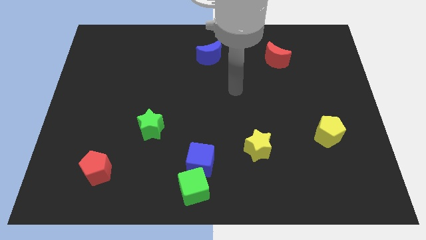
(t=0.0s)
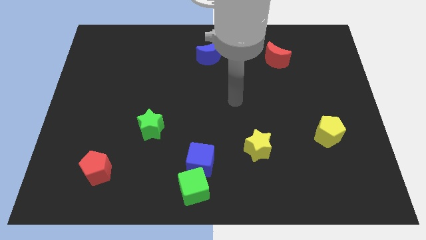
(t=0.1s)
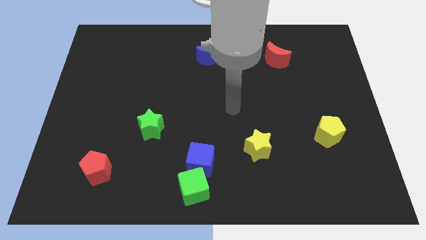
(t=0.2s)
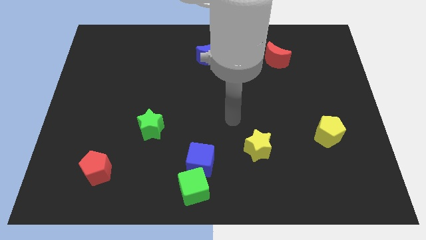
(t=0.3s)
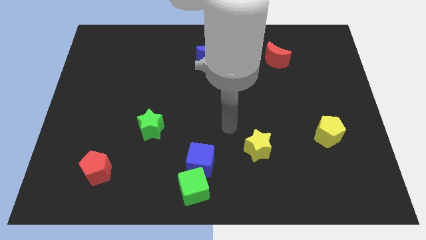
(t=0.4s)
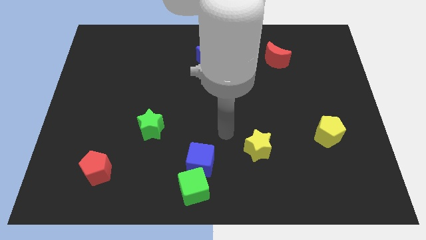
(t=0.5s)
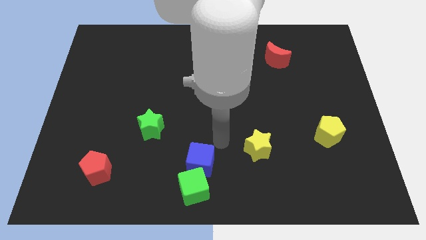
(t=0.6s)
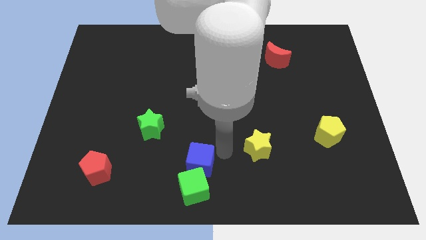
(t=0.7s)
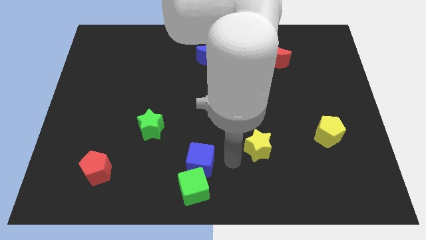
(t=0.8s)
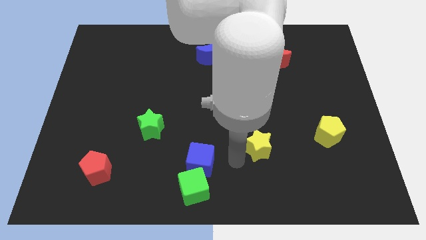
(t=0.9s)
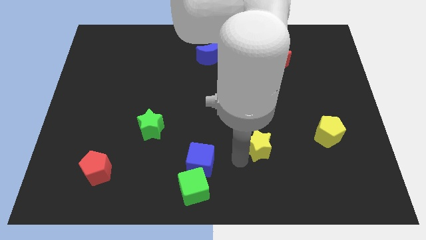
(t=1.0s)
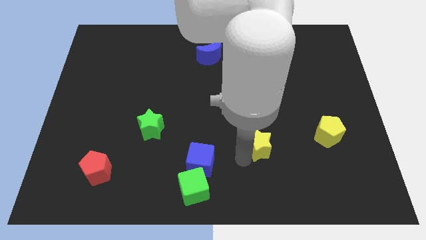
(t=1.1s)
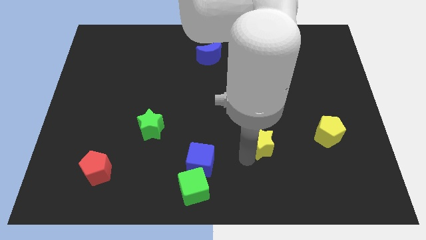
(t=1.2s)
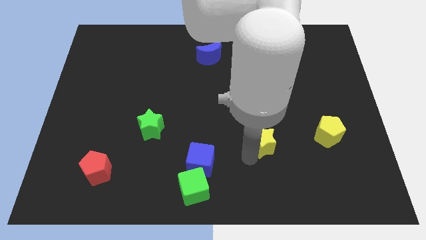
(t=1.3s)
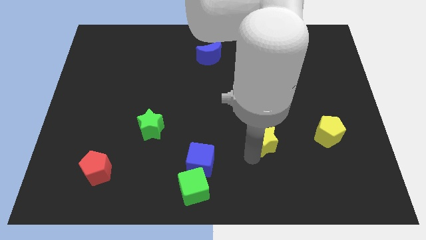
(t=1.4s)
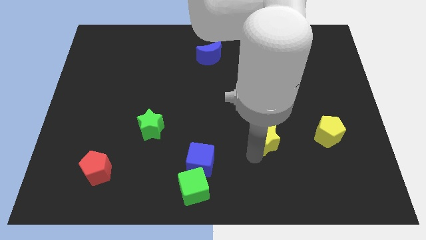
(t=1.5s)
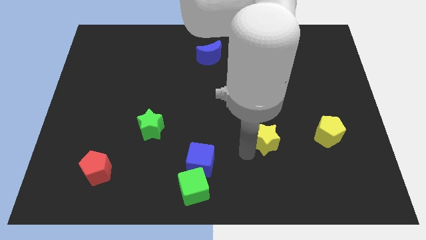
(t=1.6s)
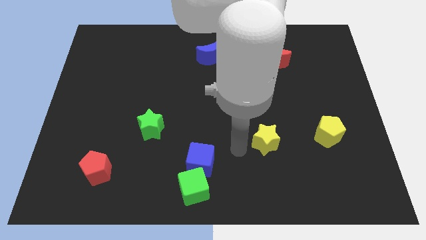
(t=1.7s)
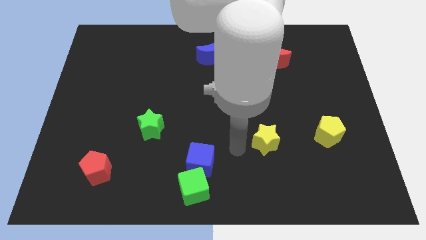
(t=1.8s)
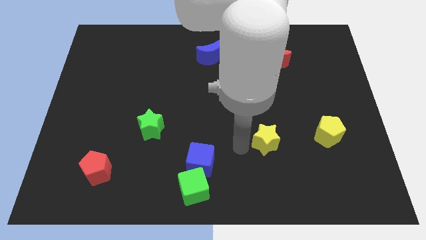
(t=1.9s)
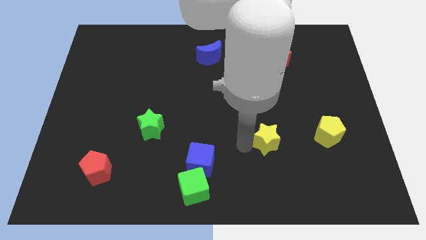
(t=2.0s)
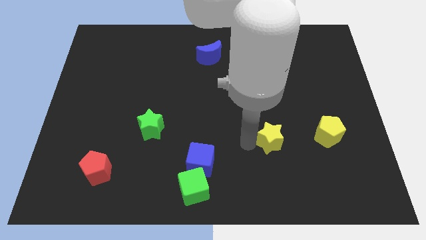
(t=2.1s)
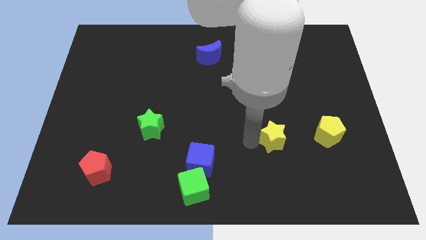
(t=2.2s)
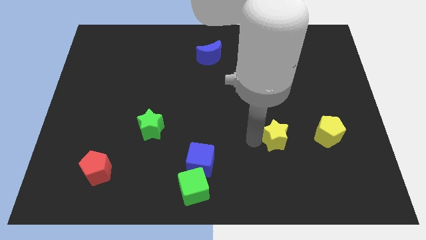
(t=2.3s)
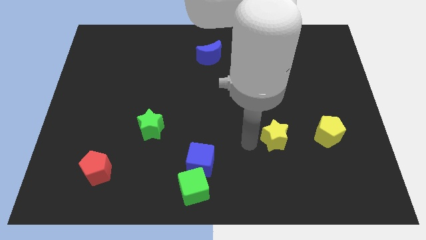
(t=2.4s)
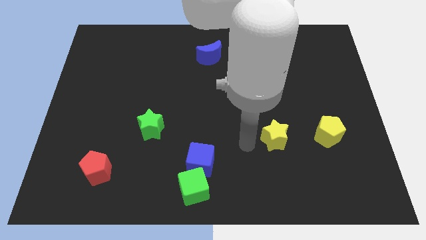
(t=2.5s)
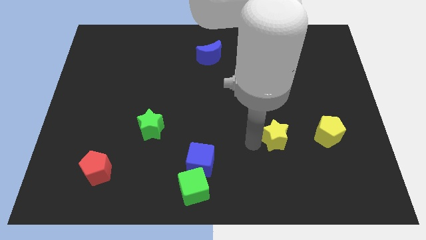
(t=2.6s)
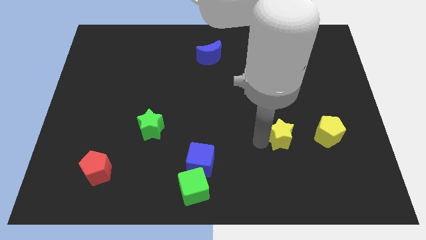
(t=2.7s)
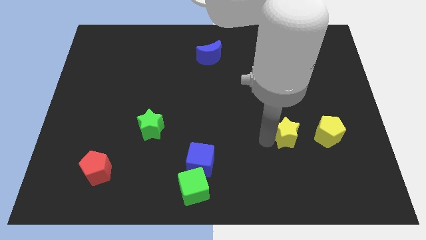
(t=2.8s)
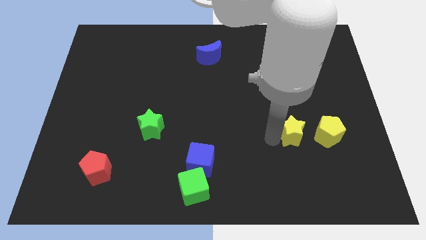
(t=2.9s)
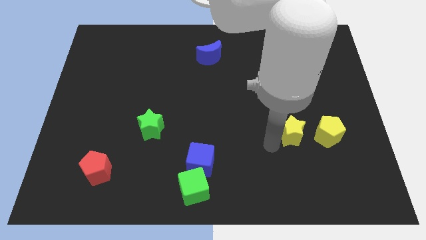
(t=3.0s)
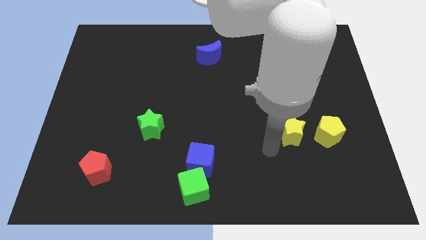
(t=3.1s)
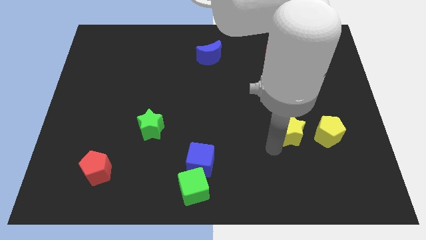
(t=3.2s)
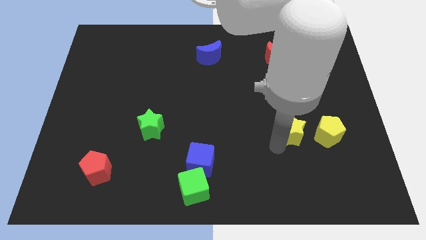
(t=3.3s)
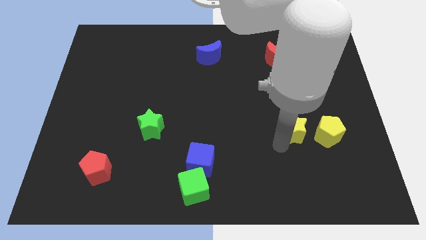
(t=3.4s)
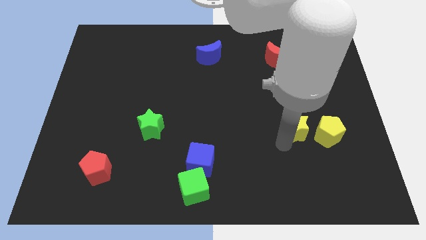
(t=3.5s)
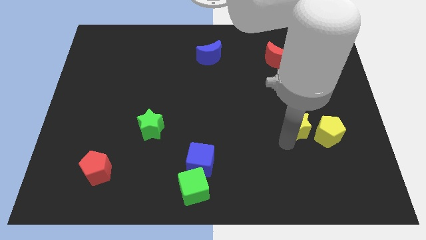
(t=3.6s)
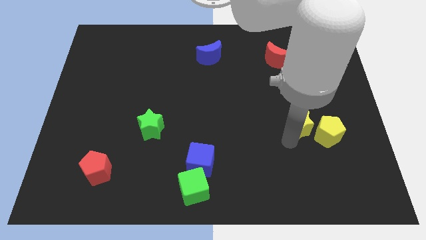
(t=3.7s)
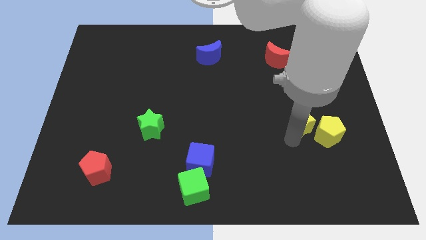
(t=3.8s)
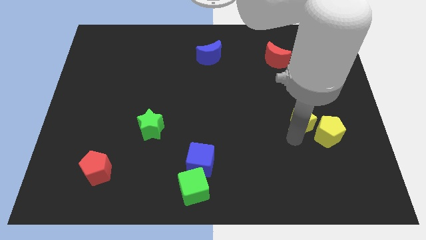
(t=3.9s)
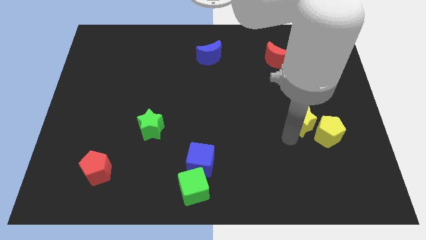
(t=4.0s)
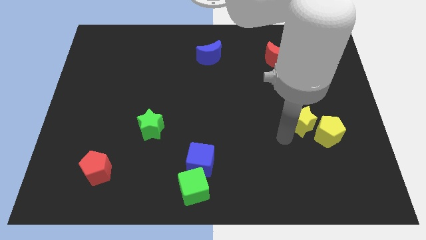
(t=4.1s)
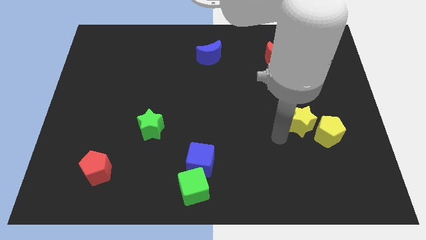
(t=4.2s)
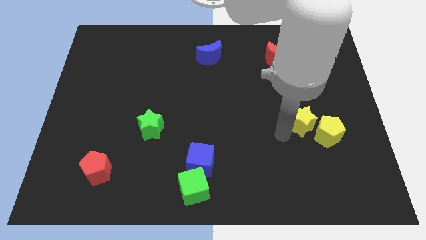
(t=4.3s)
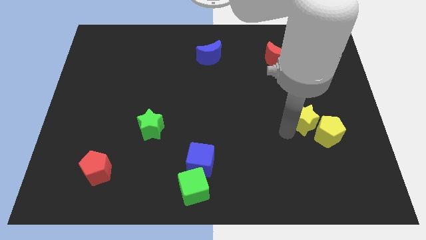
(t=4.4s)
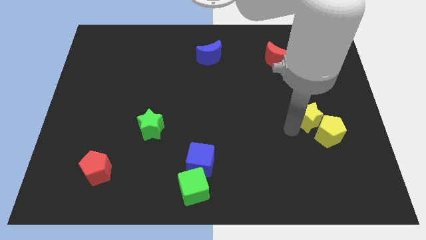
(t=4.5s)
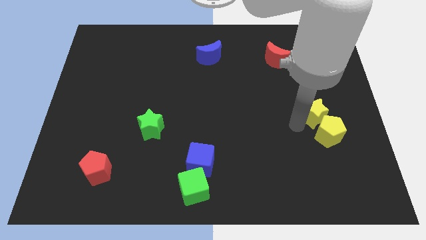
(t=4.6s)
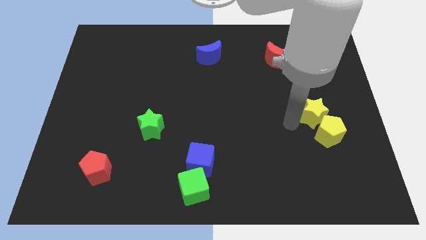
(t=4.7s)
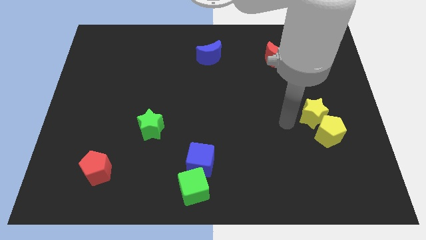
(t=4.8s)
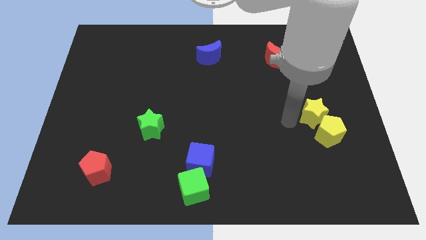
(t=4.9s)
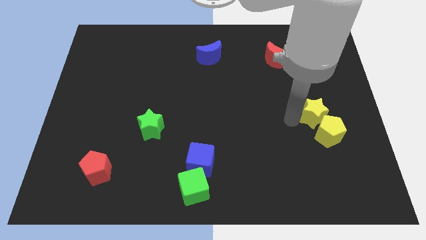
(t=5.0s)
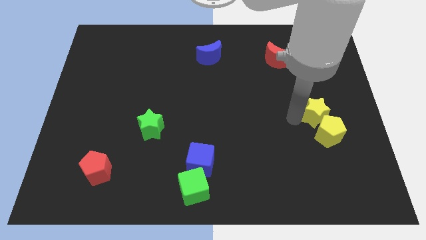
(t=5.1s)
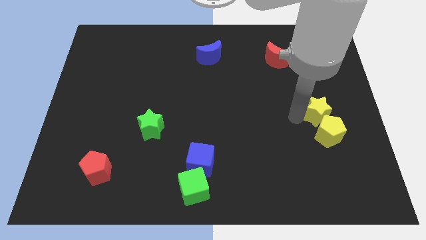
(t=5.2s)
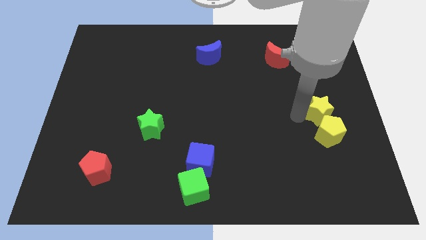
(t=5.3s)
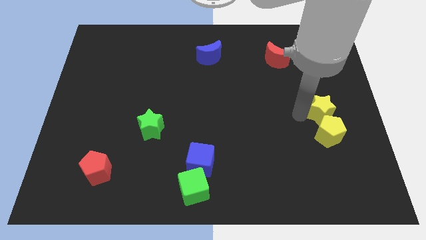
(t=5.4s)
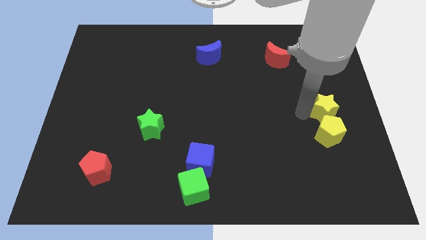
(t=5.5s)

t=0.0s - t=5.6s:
push the yellow star to the right side
